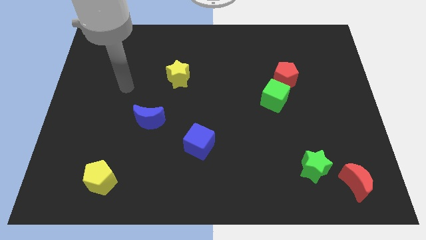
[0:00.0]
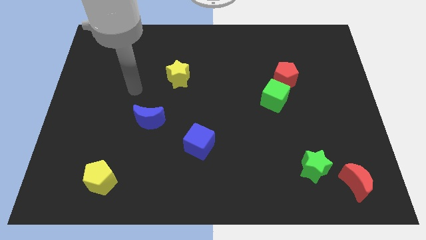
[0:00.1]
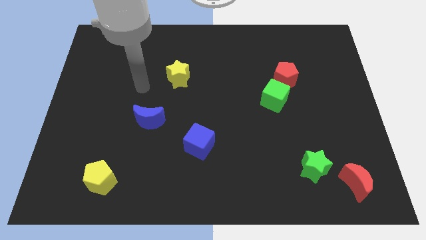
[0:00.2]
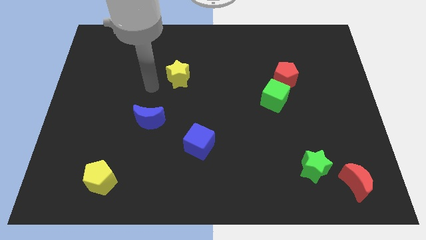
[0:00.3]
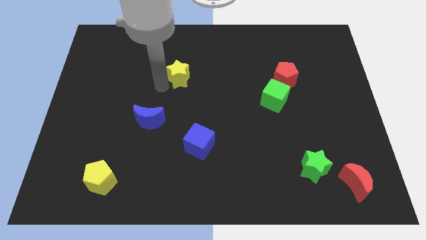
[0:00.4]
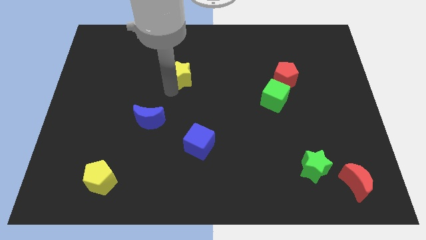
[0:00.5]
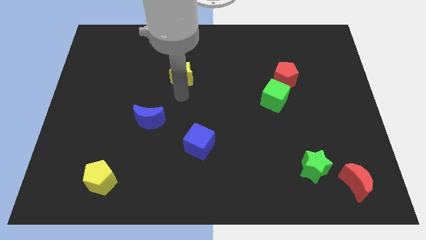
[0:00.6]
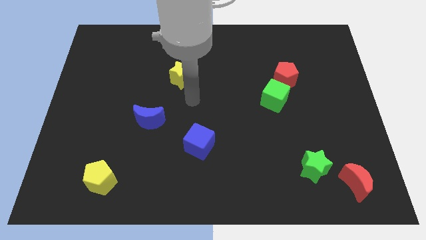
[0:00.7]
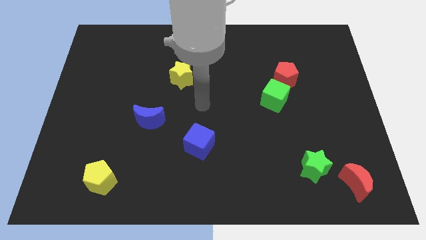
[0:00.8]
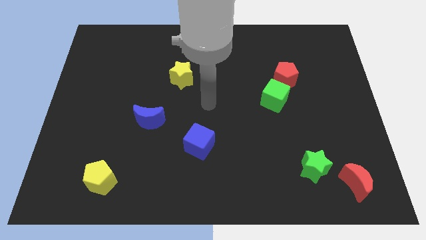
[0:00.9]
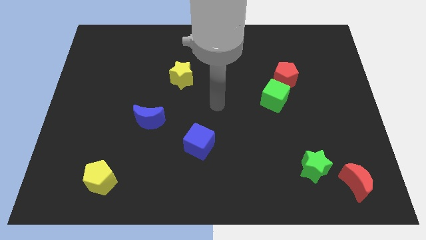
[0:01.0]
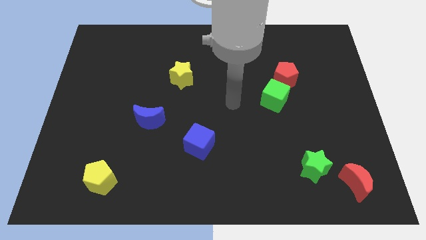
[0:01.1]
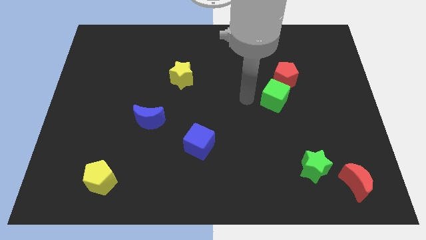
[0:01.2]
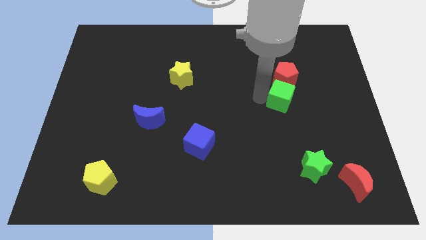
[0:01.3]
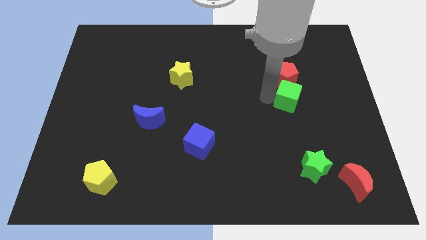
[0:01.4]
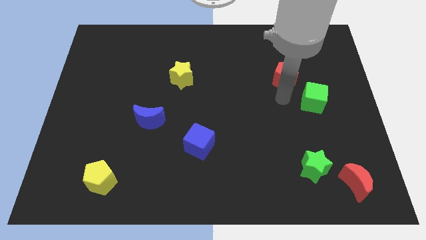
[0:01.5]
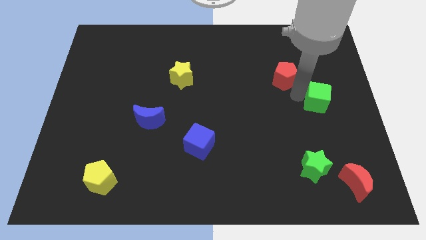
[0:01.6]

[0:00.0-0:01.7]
pull the red pentagon apart from the green cube

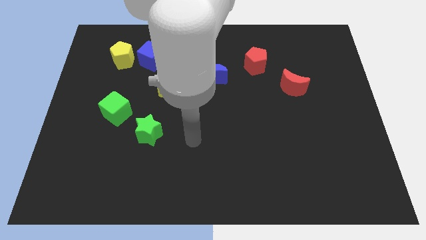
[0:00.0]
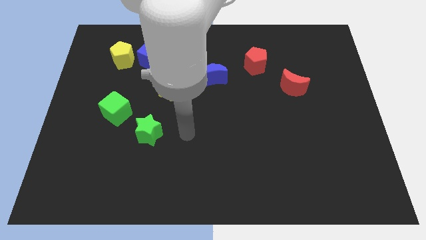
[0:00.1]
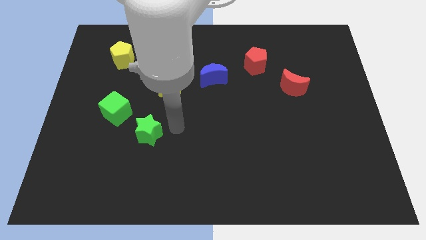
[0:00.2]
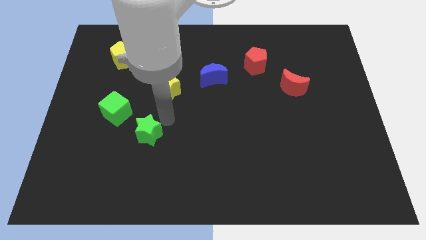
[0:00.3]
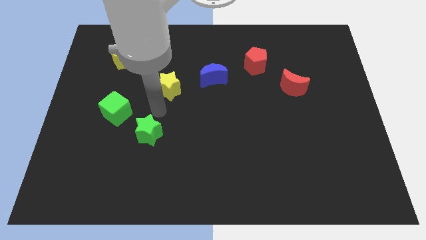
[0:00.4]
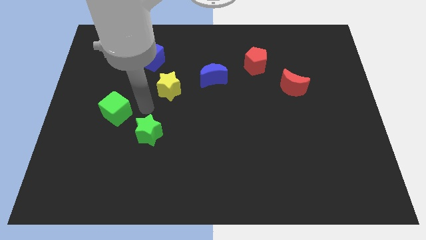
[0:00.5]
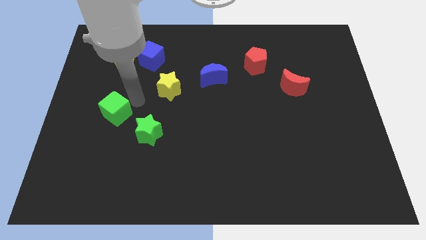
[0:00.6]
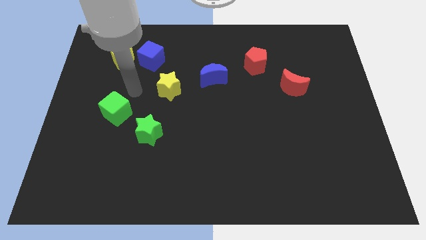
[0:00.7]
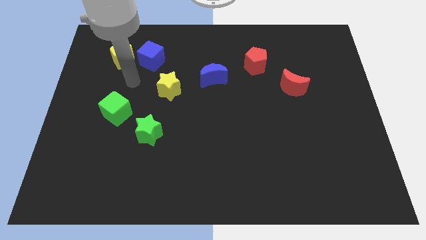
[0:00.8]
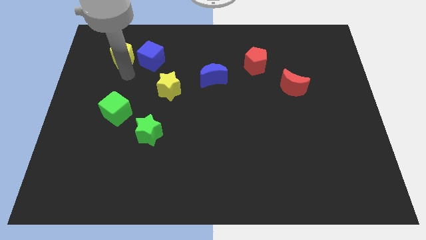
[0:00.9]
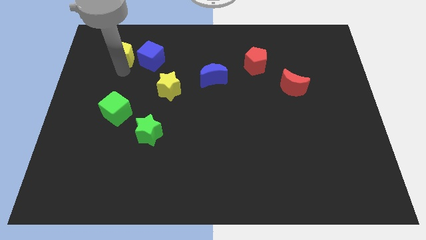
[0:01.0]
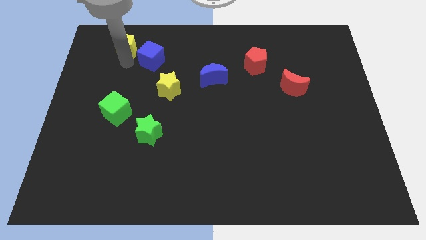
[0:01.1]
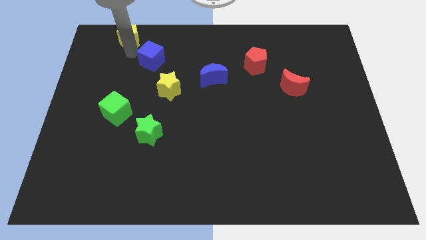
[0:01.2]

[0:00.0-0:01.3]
separate the blue cube from the yellow pentagon

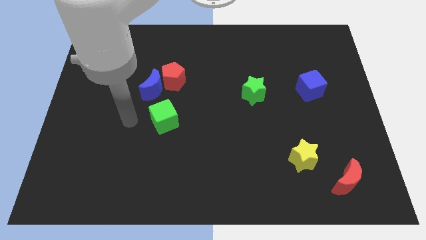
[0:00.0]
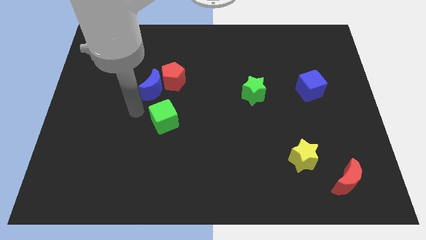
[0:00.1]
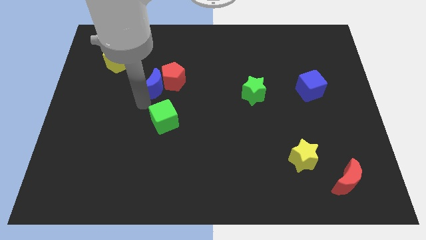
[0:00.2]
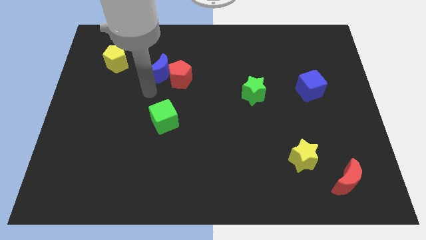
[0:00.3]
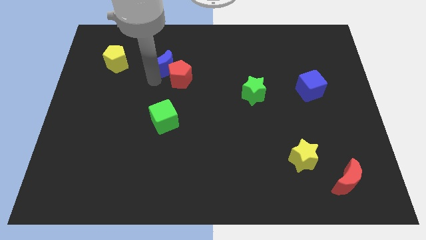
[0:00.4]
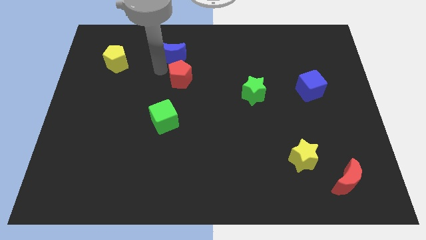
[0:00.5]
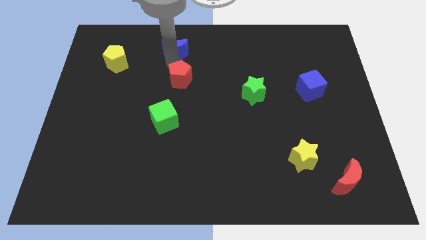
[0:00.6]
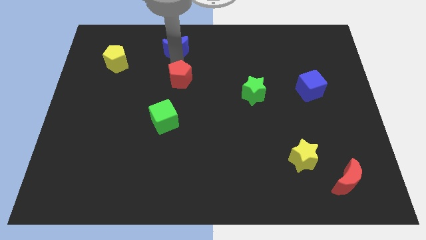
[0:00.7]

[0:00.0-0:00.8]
separate the red pentagon from the blue moon

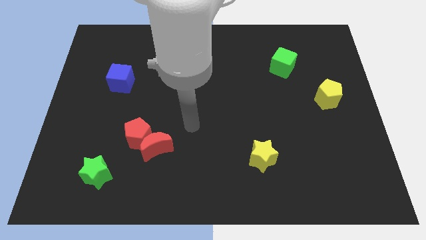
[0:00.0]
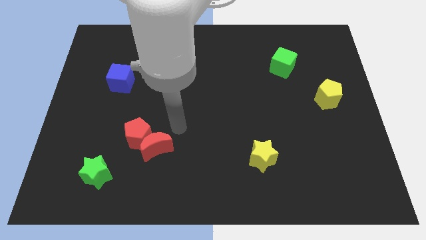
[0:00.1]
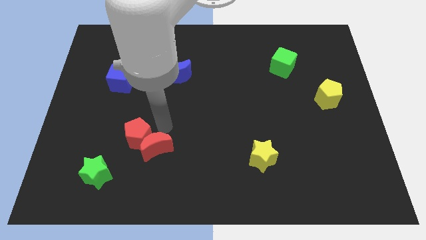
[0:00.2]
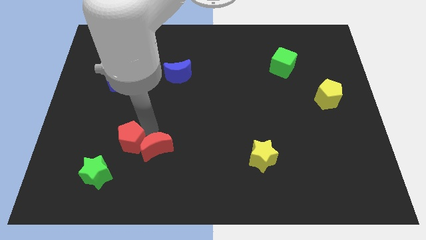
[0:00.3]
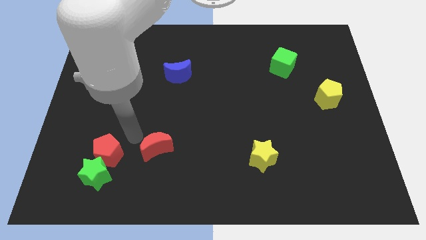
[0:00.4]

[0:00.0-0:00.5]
separate the red moon from the red pentagon

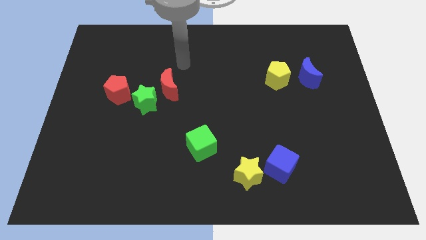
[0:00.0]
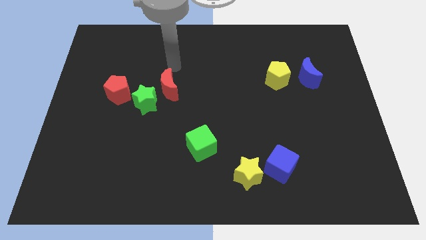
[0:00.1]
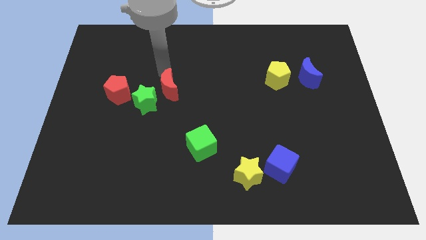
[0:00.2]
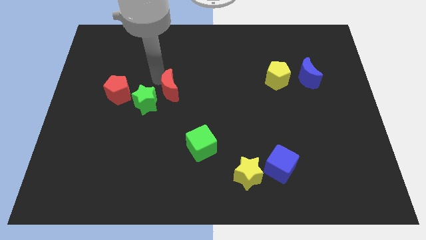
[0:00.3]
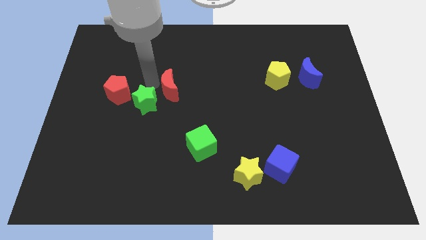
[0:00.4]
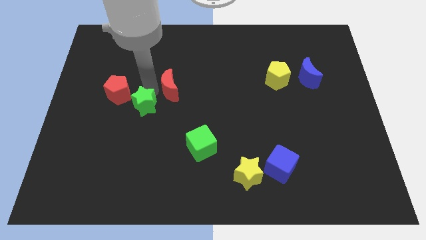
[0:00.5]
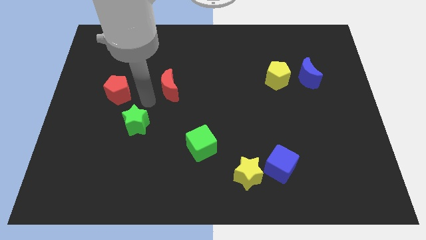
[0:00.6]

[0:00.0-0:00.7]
move the red moon away from the green star

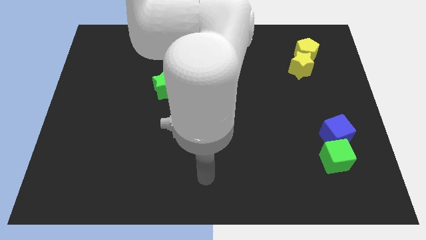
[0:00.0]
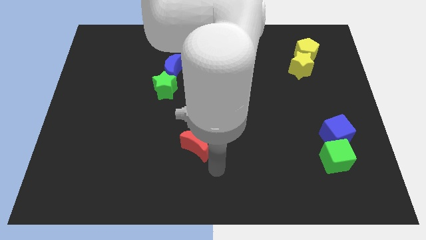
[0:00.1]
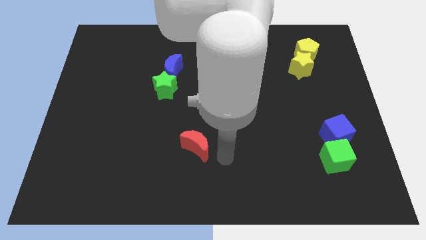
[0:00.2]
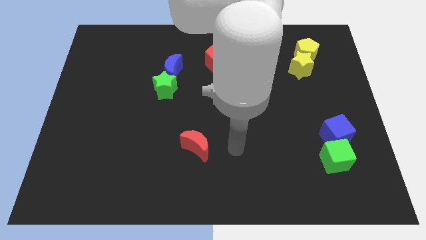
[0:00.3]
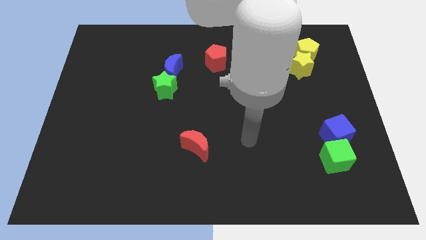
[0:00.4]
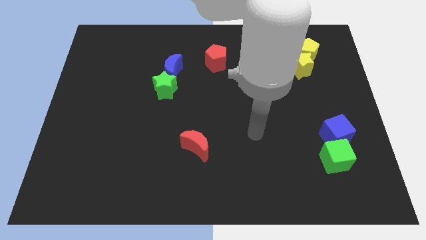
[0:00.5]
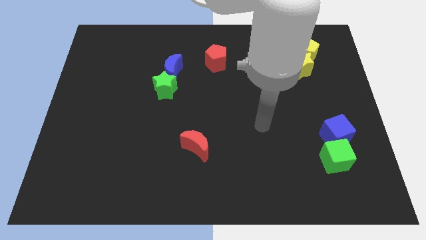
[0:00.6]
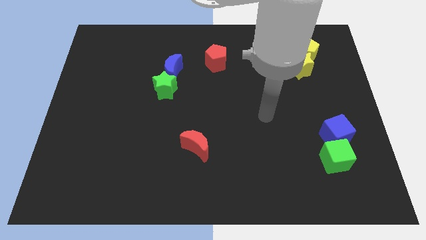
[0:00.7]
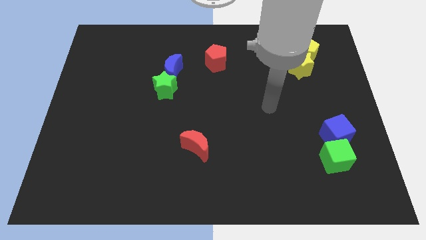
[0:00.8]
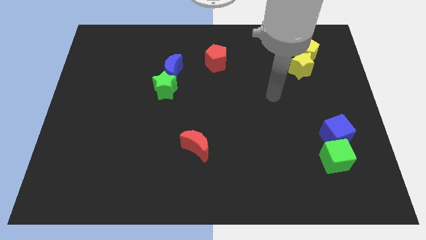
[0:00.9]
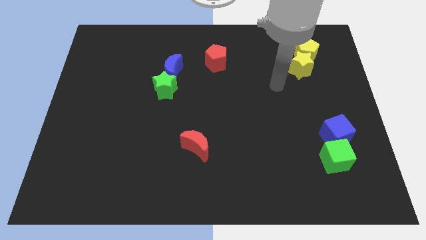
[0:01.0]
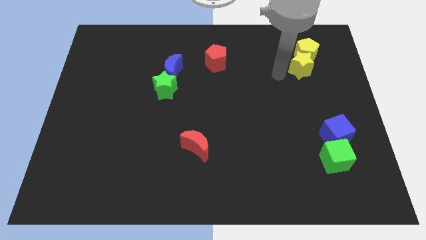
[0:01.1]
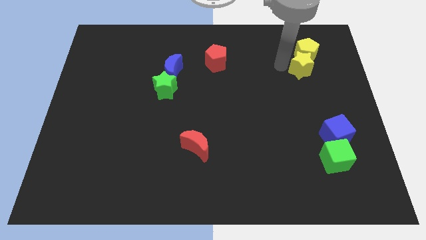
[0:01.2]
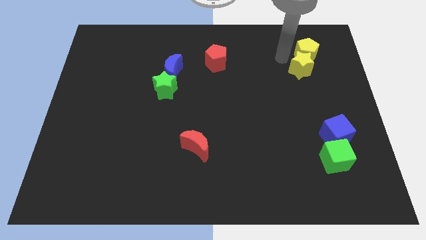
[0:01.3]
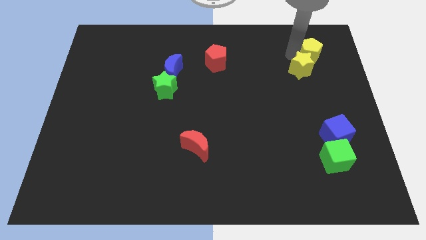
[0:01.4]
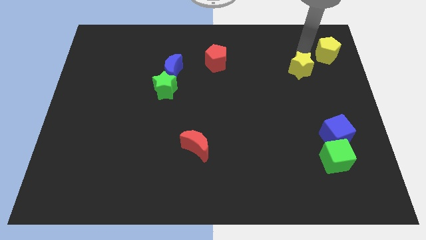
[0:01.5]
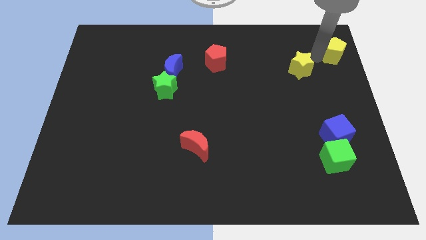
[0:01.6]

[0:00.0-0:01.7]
separate the yellow star from the yellow pentagon

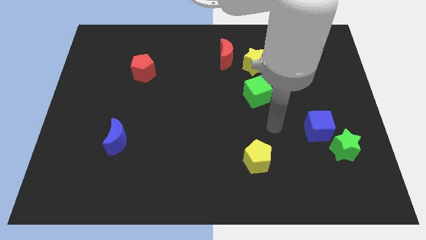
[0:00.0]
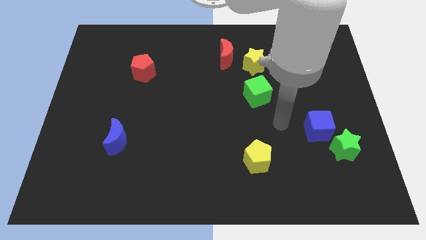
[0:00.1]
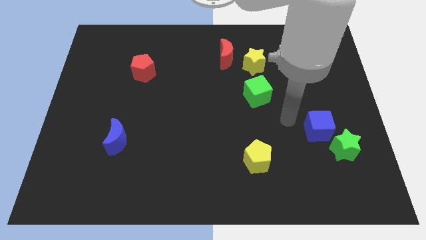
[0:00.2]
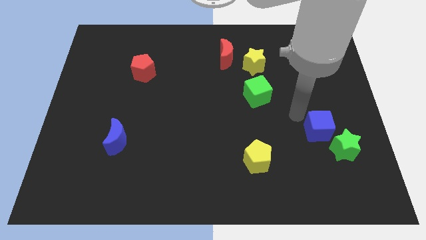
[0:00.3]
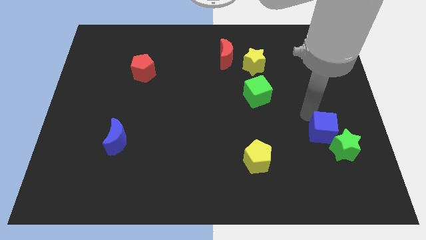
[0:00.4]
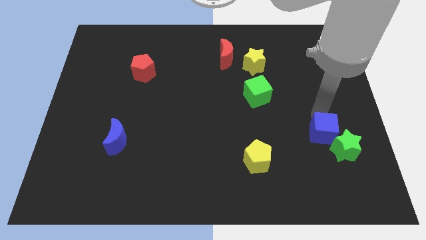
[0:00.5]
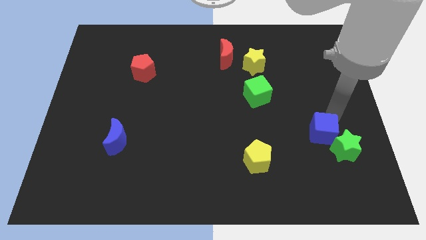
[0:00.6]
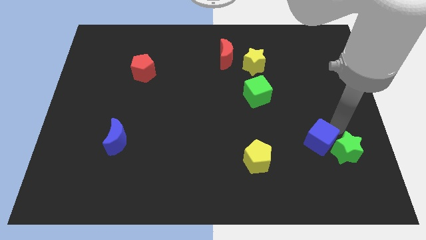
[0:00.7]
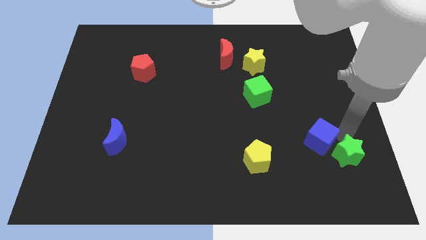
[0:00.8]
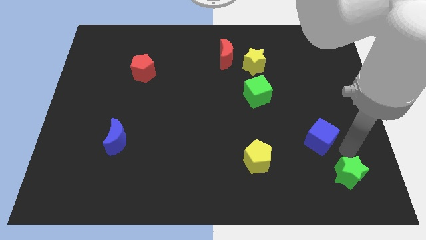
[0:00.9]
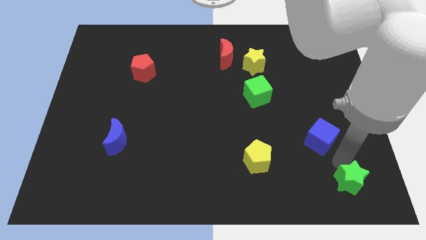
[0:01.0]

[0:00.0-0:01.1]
separate the blue cube from the green star

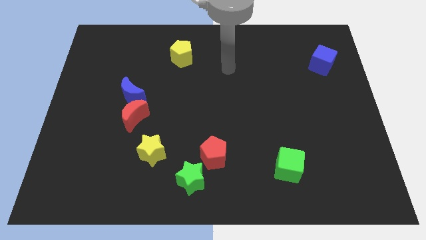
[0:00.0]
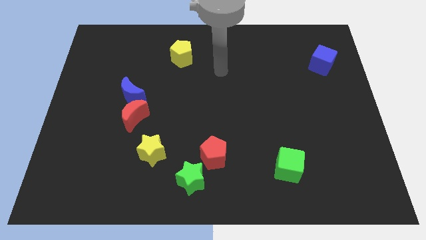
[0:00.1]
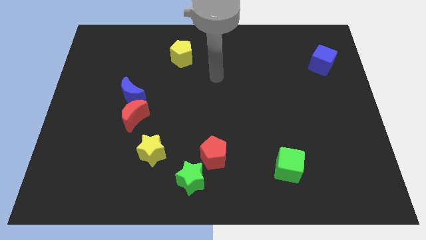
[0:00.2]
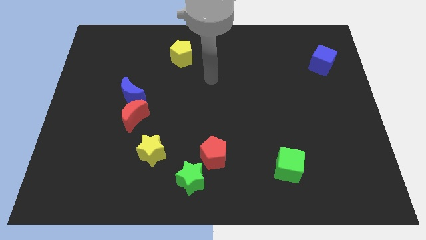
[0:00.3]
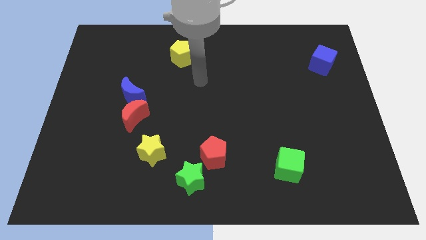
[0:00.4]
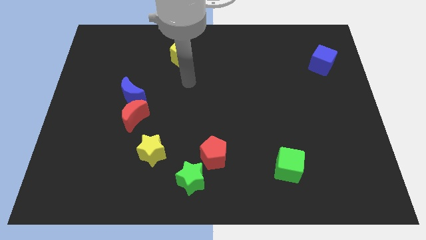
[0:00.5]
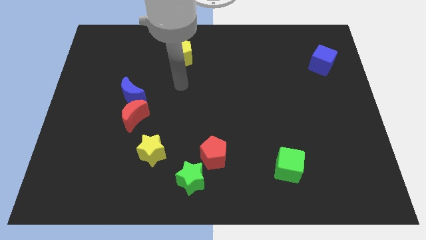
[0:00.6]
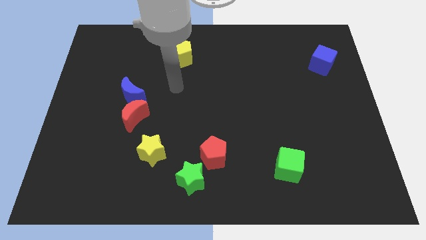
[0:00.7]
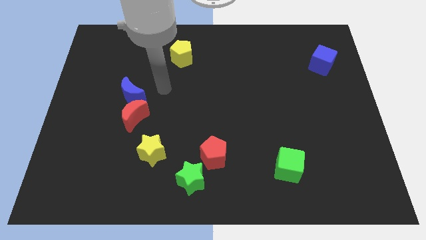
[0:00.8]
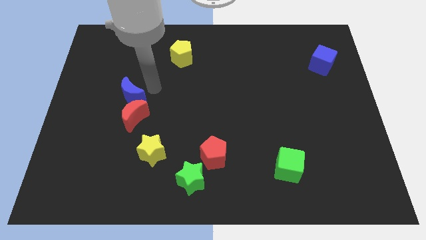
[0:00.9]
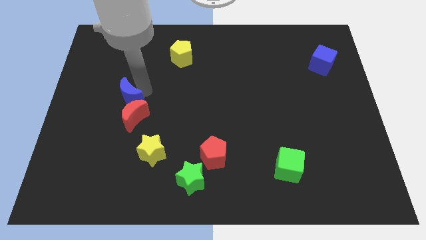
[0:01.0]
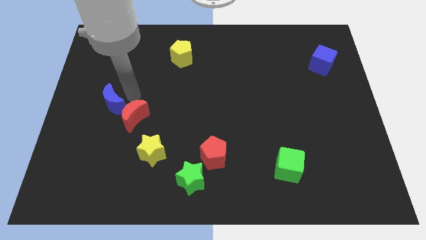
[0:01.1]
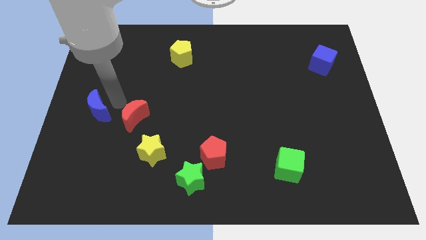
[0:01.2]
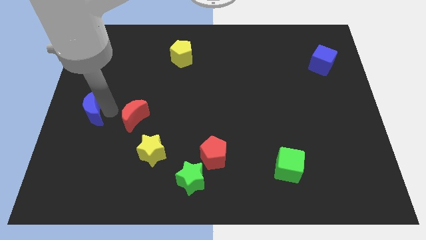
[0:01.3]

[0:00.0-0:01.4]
move the red moon away from the blue moon
